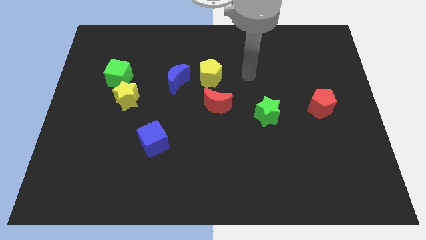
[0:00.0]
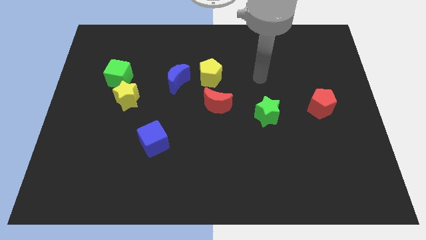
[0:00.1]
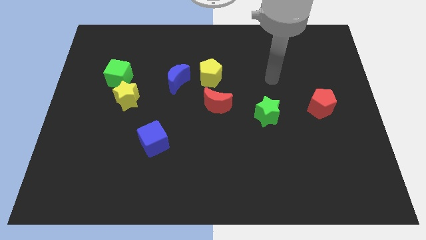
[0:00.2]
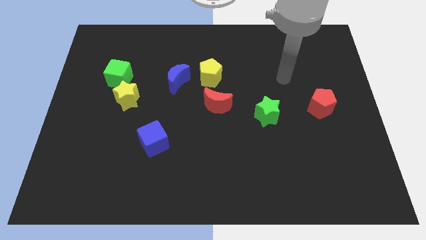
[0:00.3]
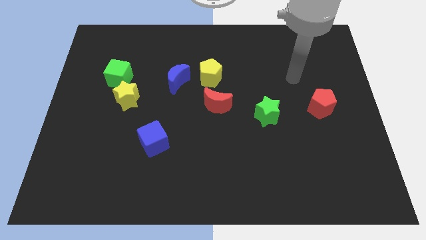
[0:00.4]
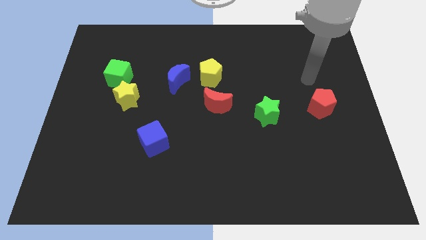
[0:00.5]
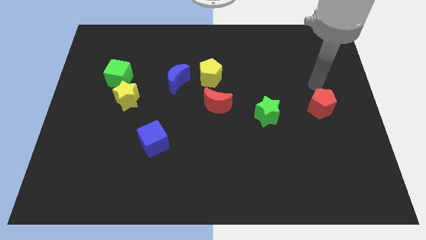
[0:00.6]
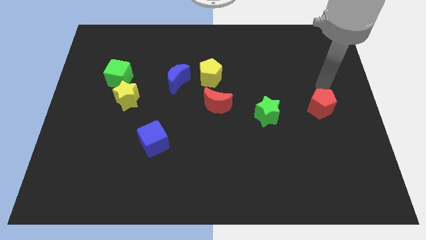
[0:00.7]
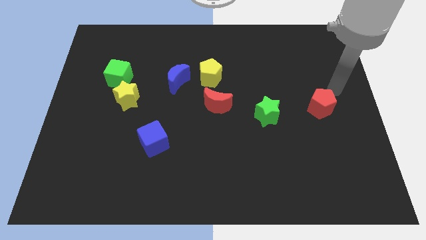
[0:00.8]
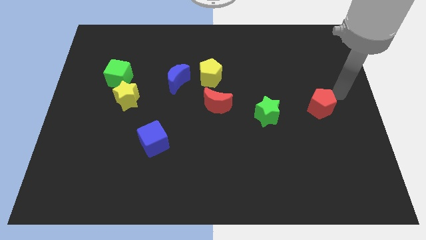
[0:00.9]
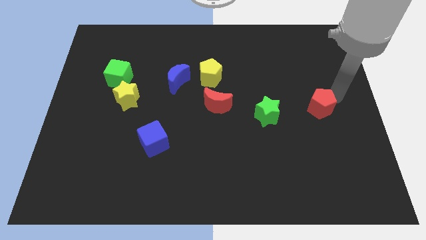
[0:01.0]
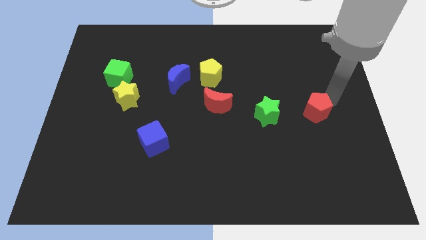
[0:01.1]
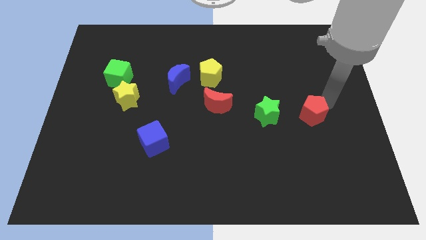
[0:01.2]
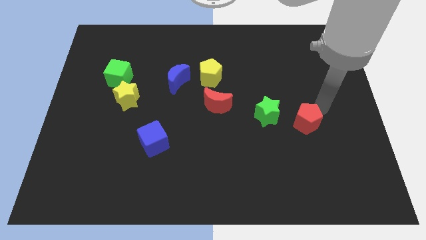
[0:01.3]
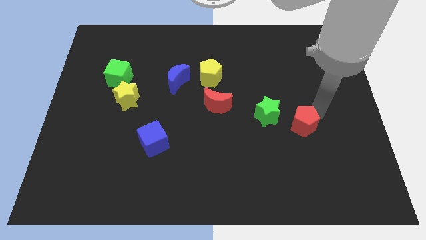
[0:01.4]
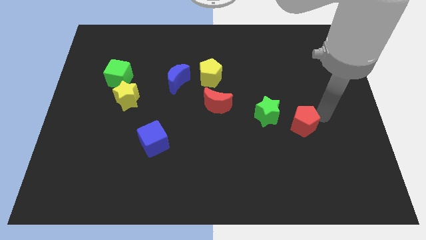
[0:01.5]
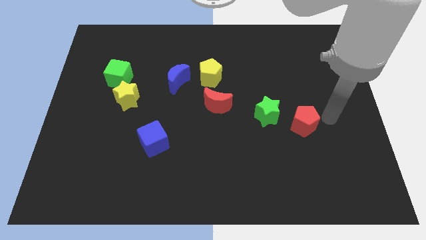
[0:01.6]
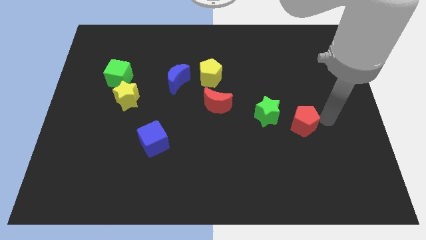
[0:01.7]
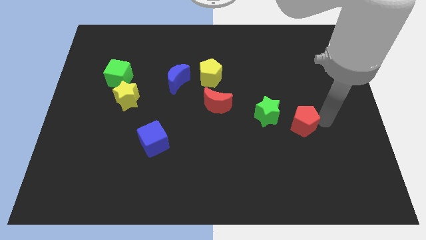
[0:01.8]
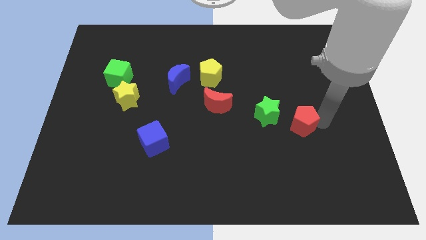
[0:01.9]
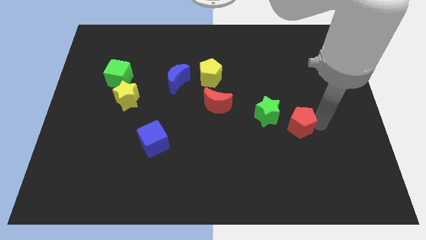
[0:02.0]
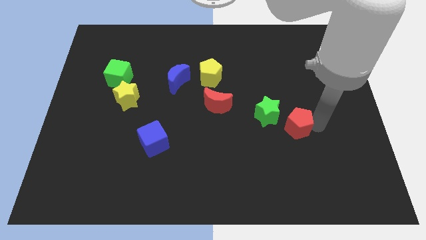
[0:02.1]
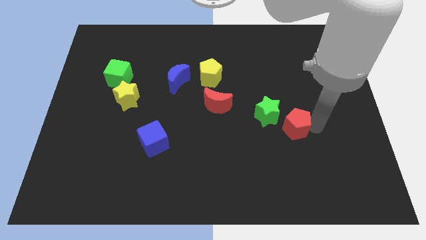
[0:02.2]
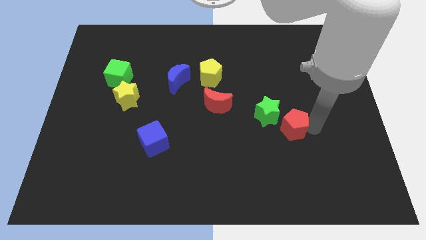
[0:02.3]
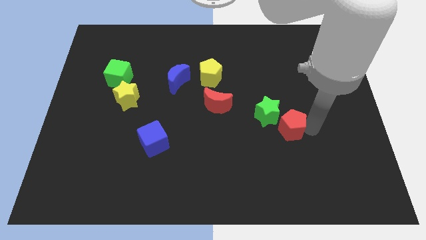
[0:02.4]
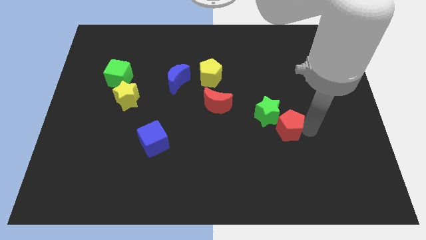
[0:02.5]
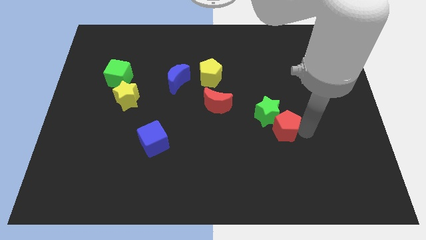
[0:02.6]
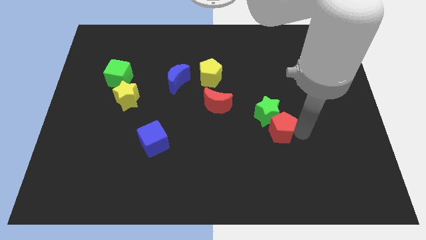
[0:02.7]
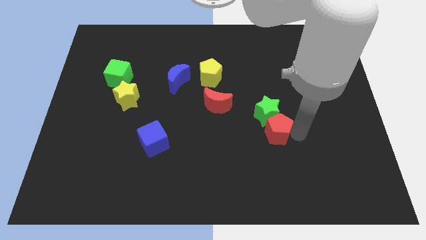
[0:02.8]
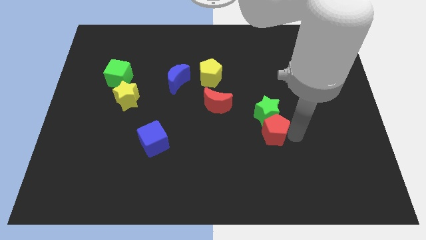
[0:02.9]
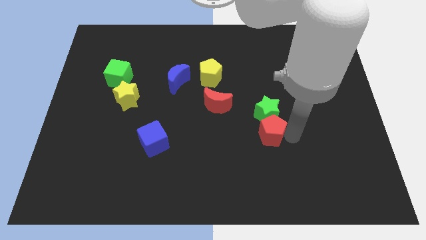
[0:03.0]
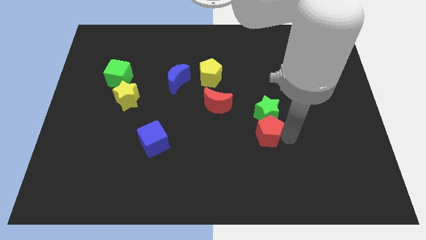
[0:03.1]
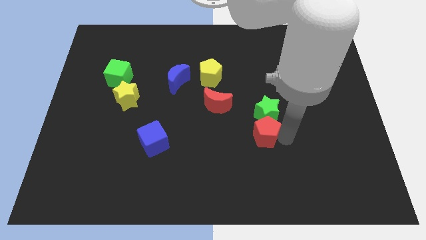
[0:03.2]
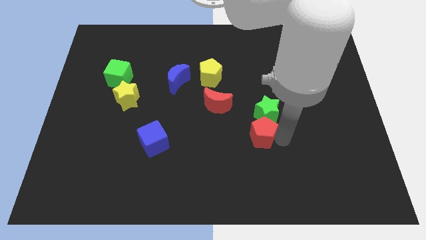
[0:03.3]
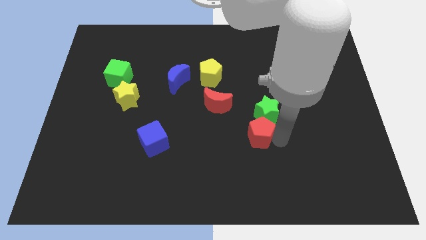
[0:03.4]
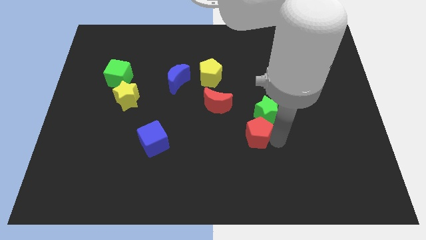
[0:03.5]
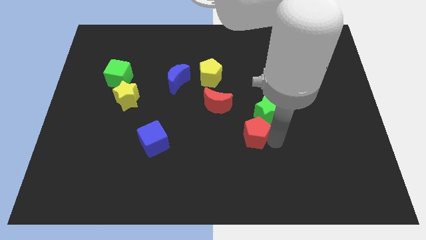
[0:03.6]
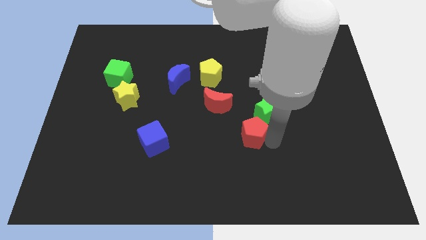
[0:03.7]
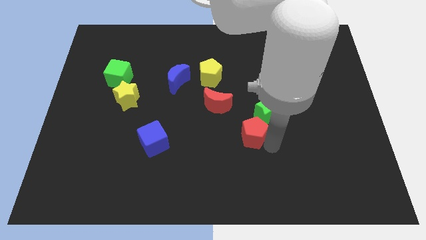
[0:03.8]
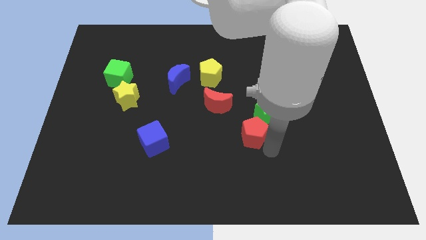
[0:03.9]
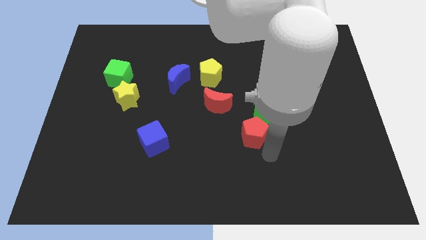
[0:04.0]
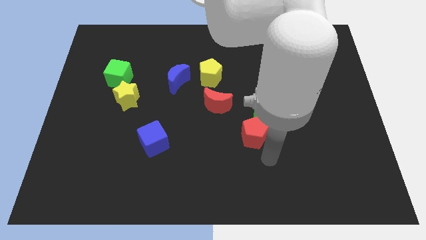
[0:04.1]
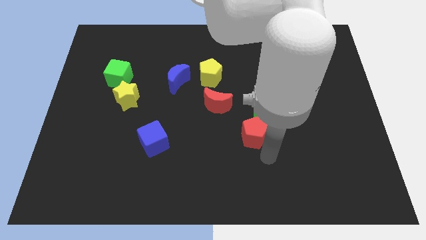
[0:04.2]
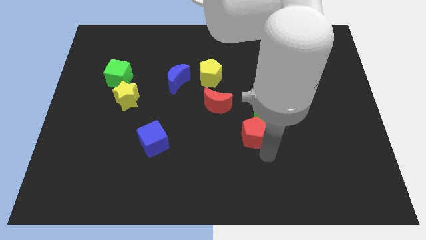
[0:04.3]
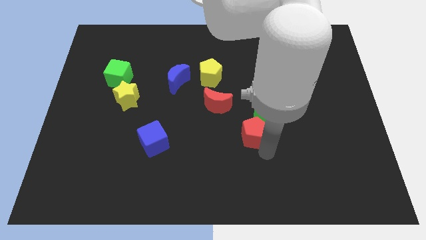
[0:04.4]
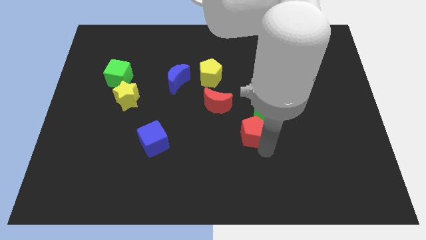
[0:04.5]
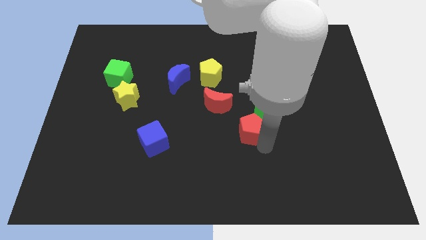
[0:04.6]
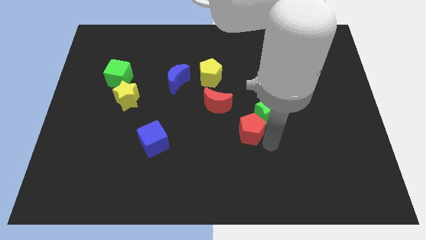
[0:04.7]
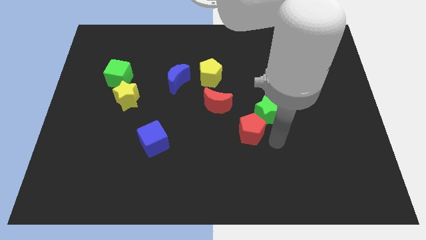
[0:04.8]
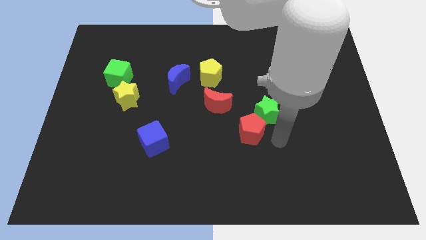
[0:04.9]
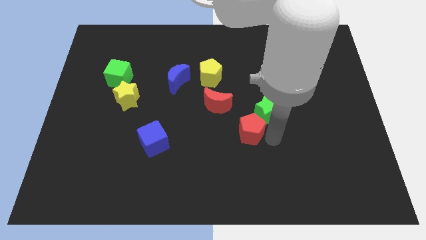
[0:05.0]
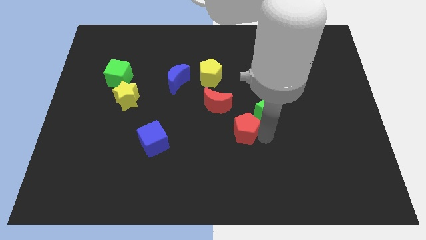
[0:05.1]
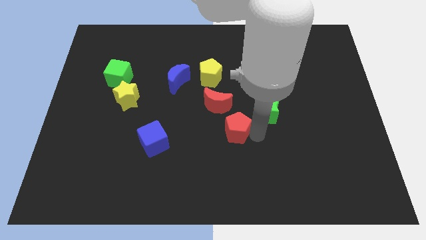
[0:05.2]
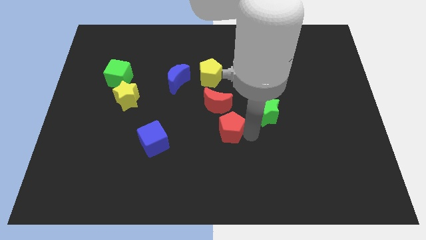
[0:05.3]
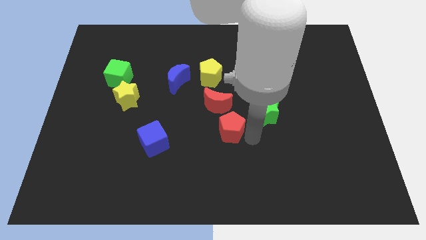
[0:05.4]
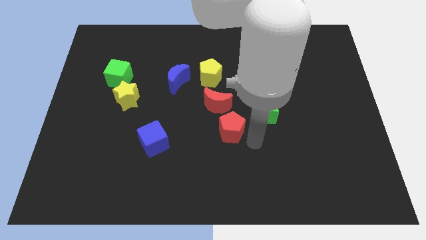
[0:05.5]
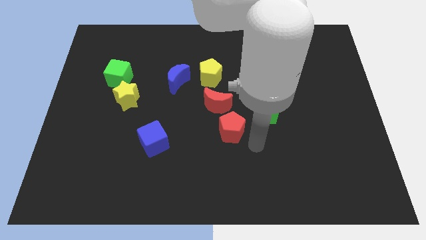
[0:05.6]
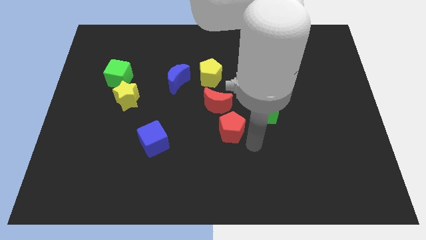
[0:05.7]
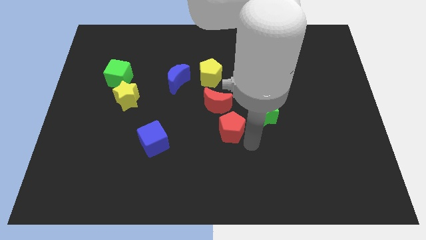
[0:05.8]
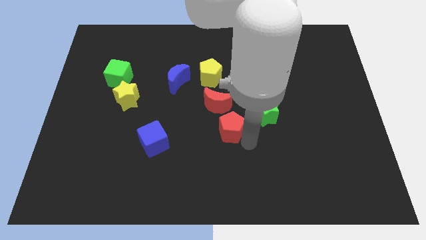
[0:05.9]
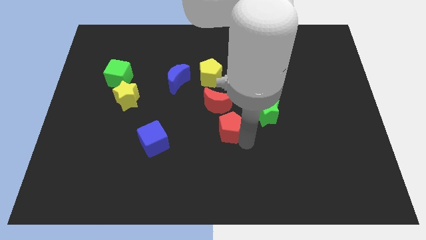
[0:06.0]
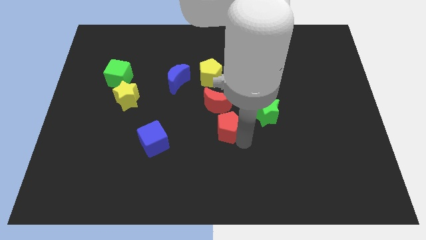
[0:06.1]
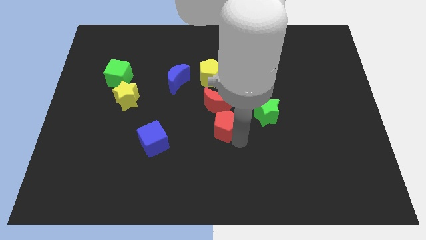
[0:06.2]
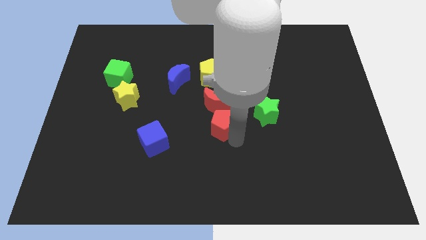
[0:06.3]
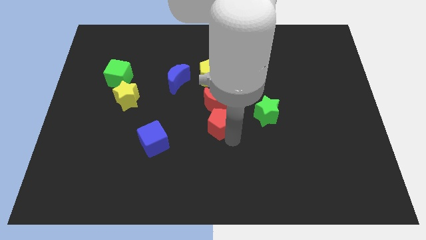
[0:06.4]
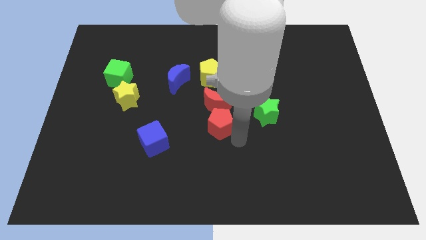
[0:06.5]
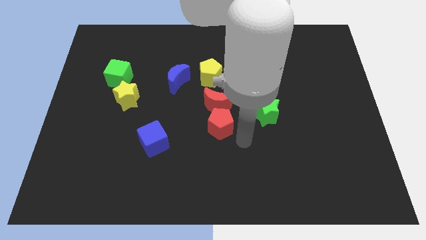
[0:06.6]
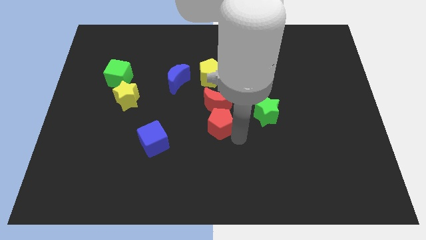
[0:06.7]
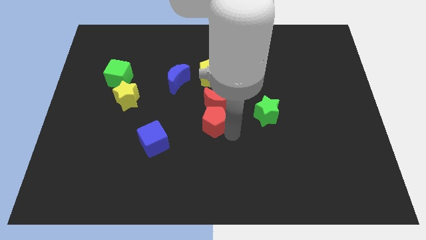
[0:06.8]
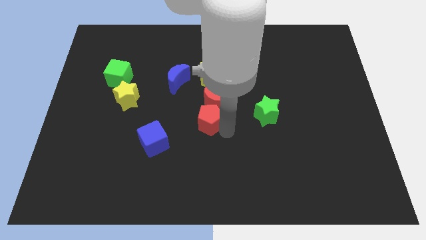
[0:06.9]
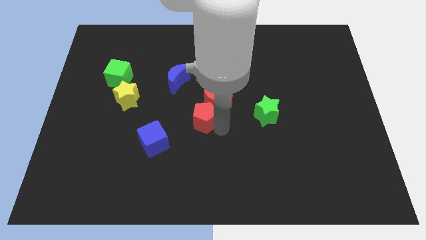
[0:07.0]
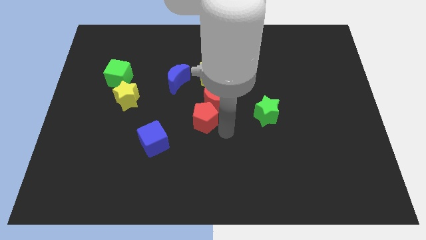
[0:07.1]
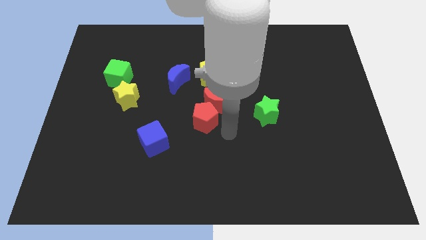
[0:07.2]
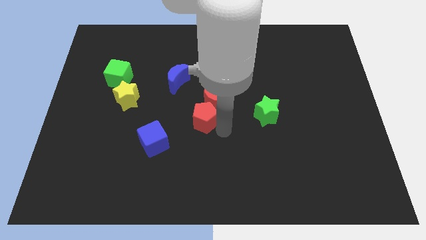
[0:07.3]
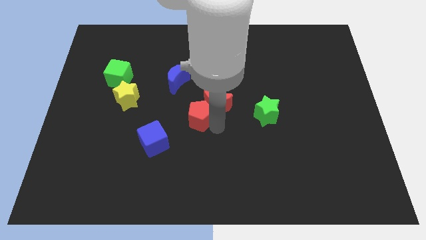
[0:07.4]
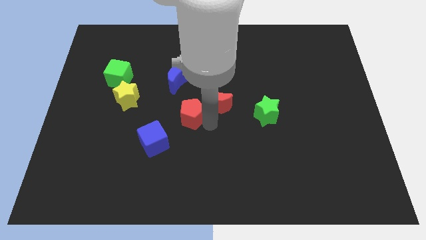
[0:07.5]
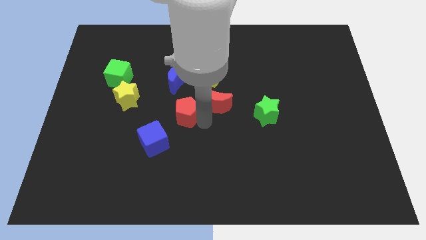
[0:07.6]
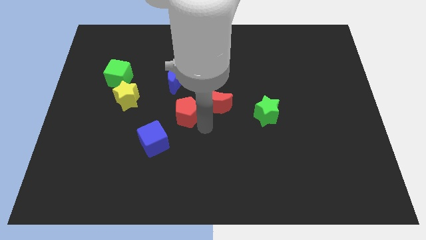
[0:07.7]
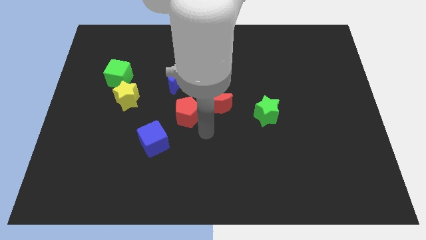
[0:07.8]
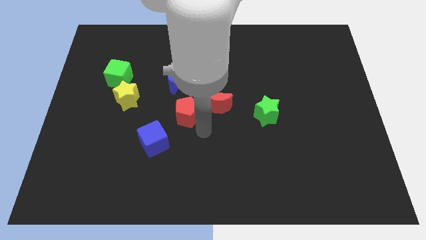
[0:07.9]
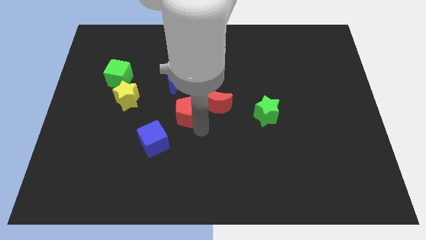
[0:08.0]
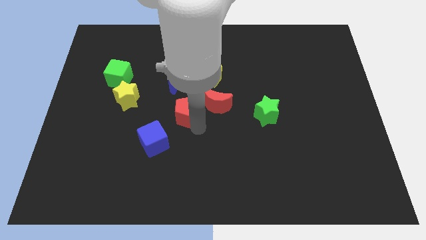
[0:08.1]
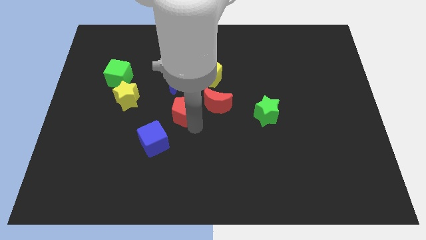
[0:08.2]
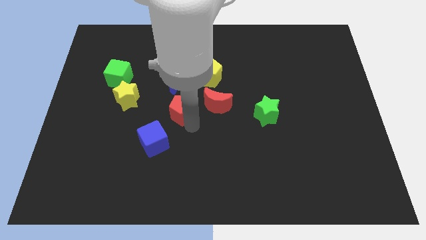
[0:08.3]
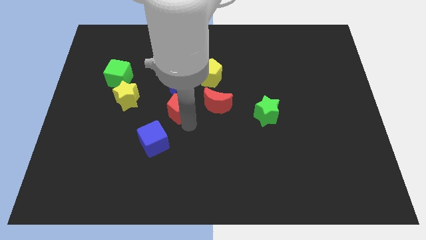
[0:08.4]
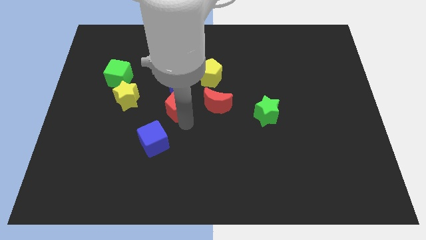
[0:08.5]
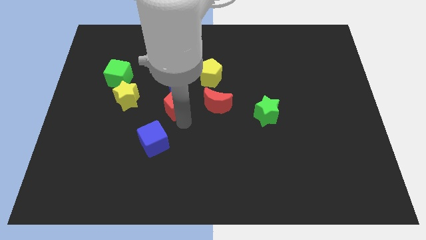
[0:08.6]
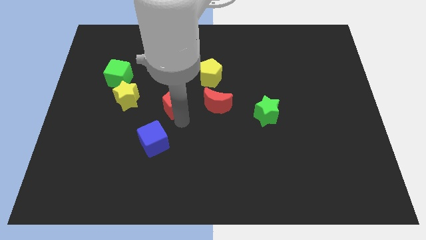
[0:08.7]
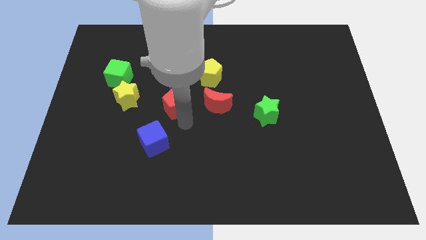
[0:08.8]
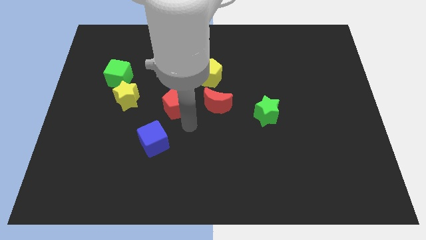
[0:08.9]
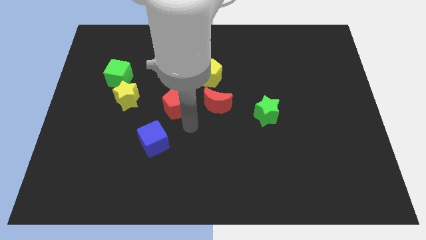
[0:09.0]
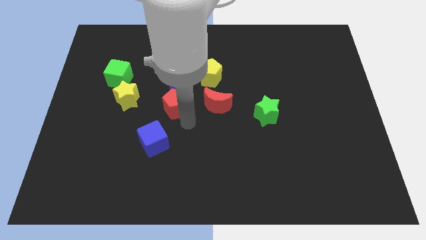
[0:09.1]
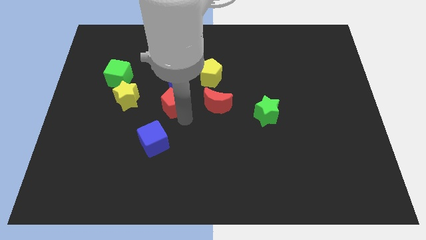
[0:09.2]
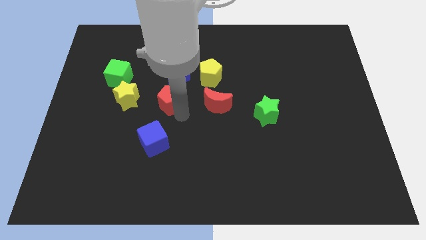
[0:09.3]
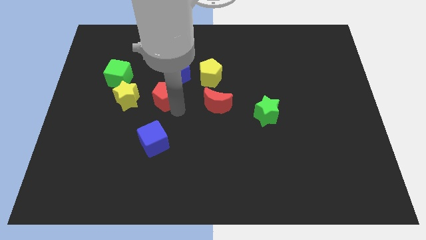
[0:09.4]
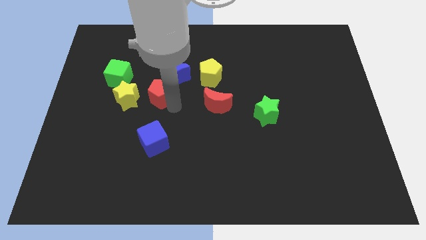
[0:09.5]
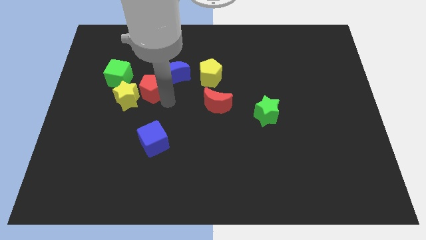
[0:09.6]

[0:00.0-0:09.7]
slide the red pentagon to the left side of the blue moon
